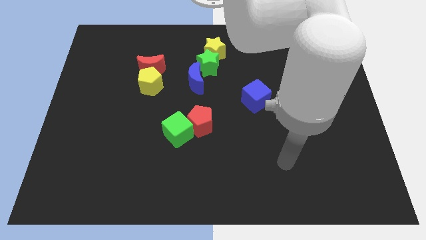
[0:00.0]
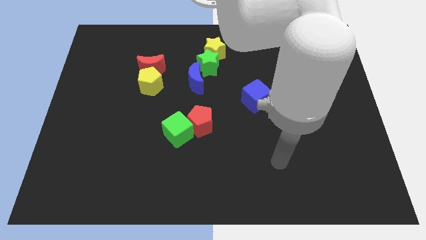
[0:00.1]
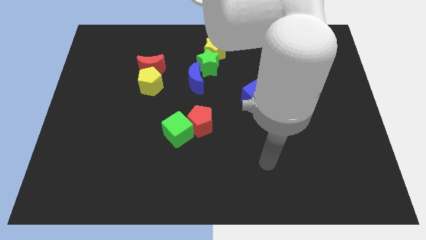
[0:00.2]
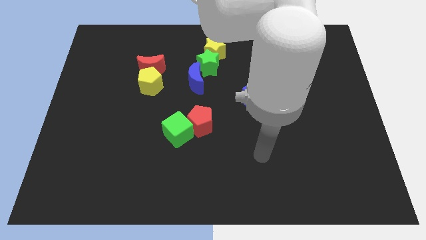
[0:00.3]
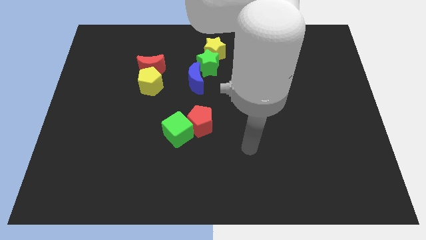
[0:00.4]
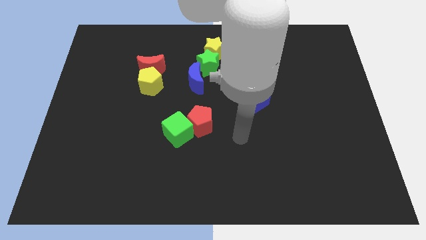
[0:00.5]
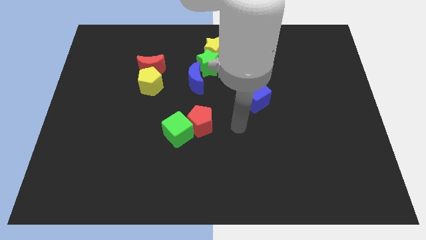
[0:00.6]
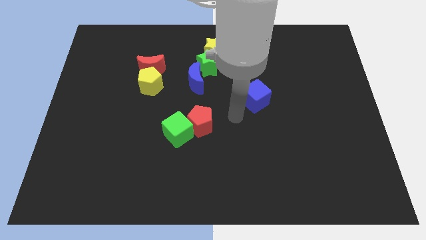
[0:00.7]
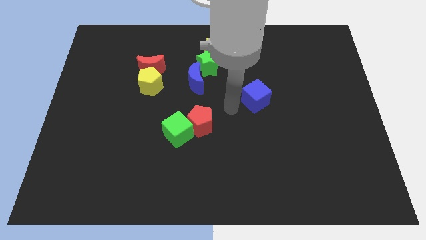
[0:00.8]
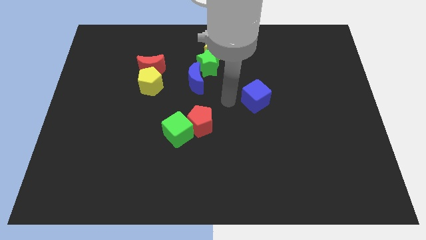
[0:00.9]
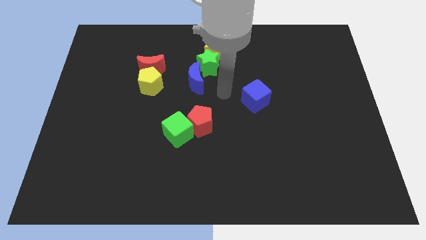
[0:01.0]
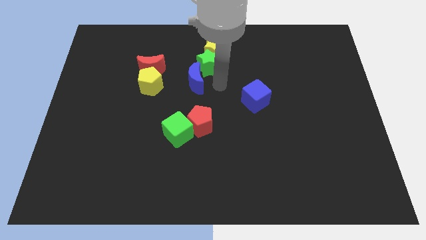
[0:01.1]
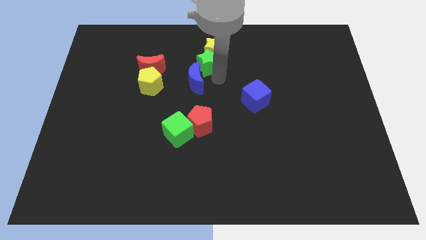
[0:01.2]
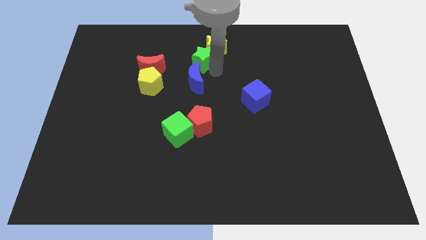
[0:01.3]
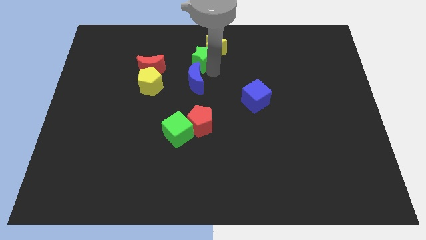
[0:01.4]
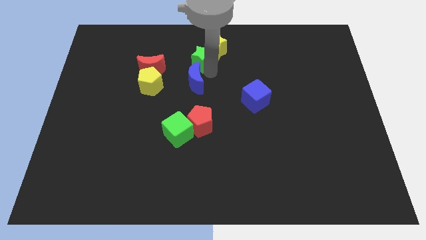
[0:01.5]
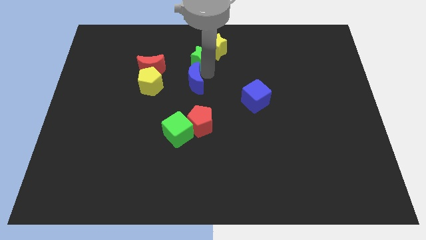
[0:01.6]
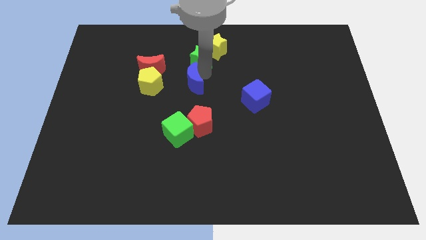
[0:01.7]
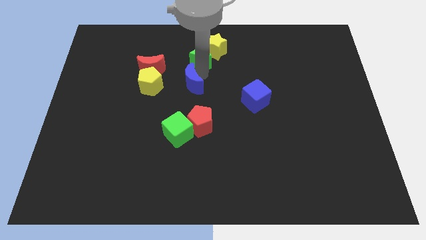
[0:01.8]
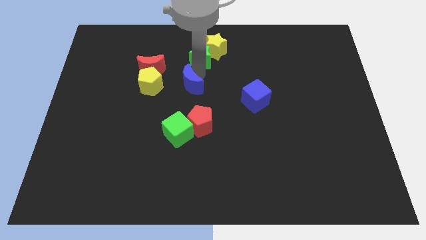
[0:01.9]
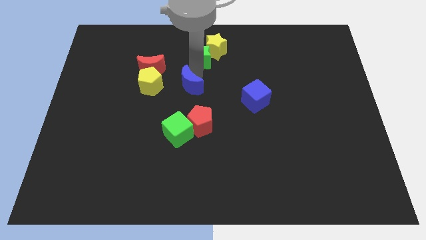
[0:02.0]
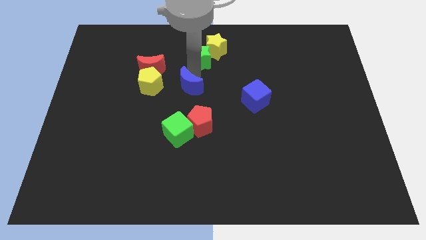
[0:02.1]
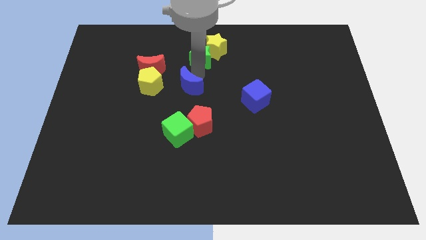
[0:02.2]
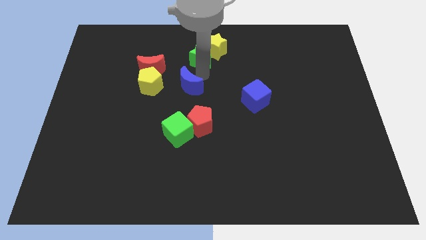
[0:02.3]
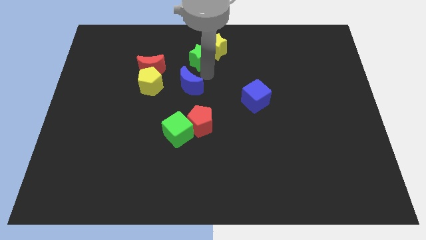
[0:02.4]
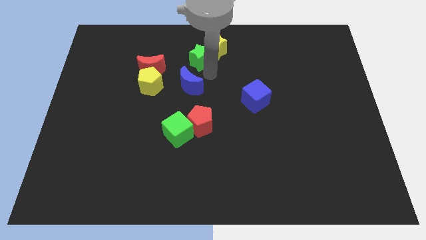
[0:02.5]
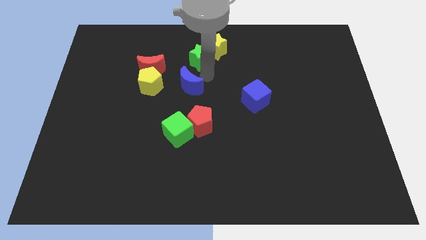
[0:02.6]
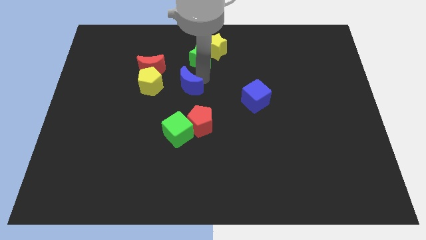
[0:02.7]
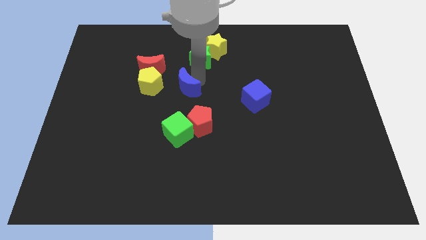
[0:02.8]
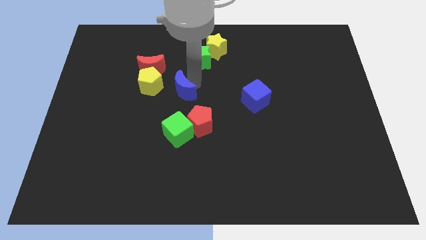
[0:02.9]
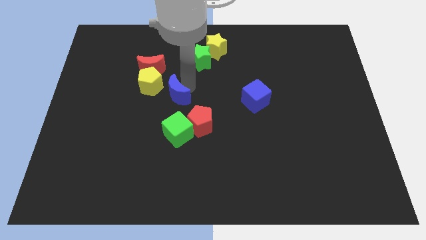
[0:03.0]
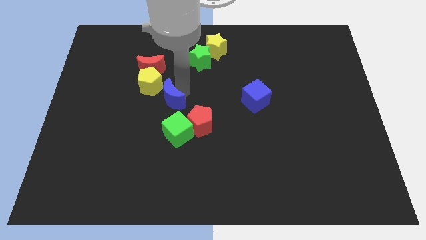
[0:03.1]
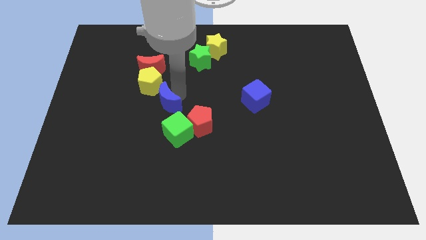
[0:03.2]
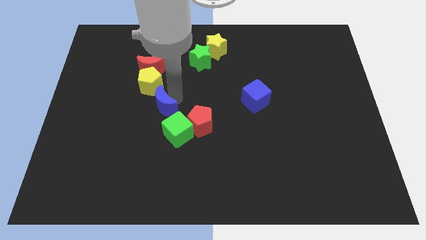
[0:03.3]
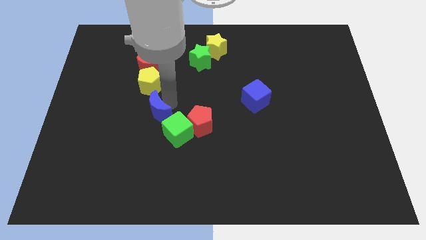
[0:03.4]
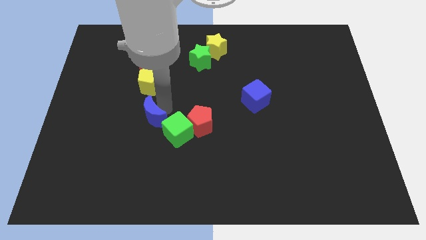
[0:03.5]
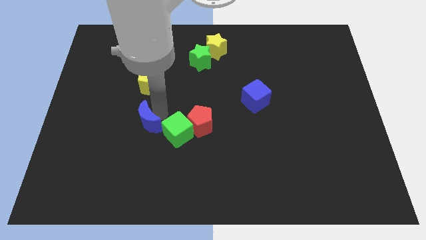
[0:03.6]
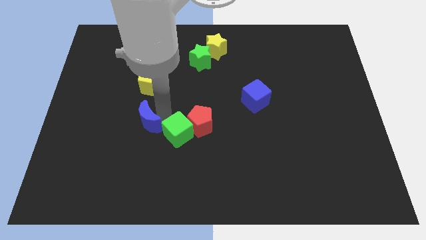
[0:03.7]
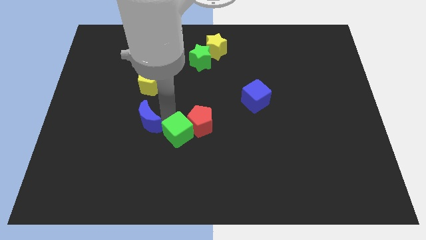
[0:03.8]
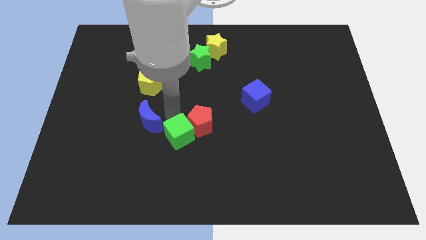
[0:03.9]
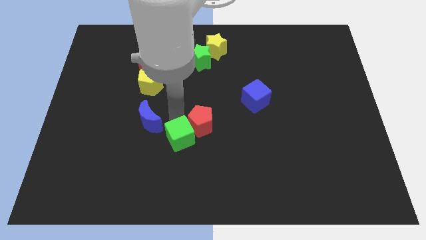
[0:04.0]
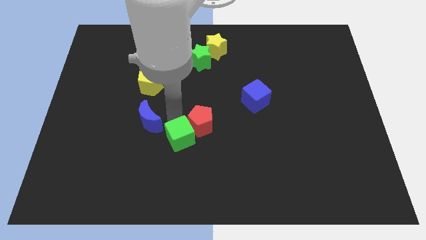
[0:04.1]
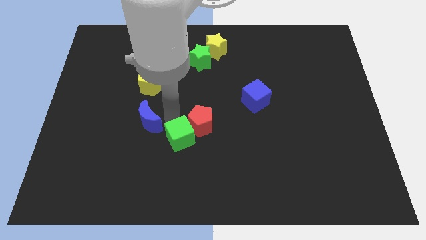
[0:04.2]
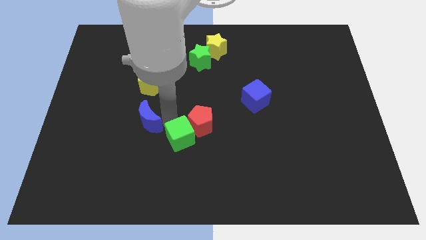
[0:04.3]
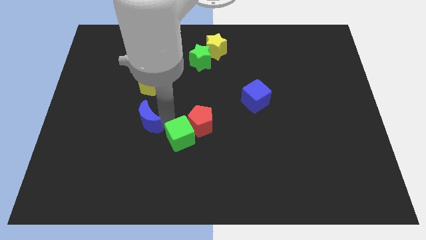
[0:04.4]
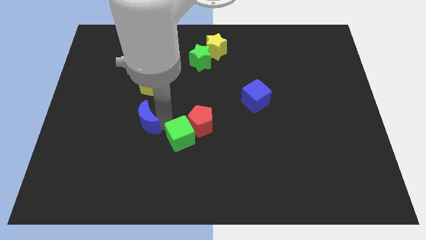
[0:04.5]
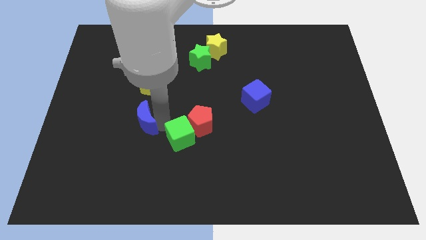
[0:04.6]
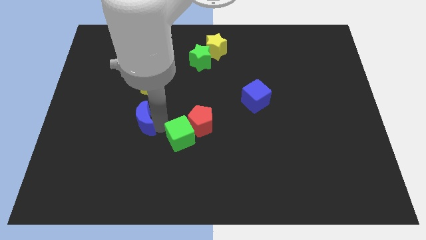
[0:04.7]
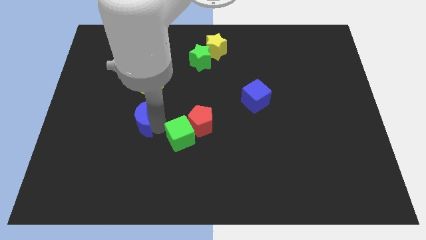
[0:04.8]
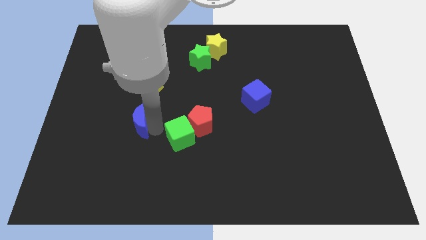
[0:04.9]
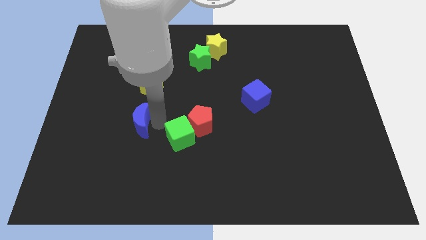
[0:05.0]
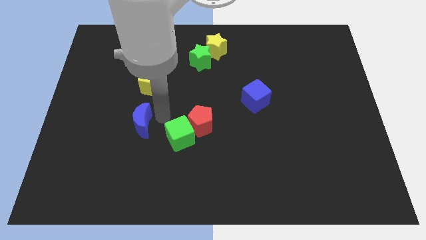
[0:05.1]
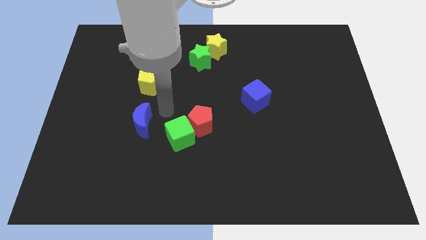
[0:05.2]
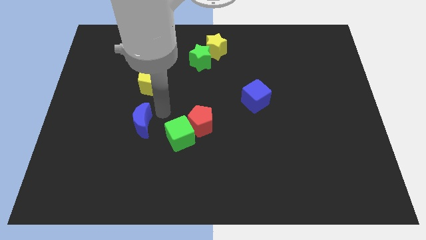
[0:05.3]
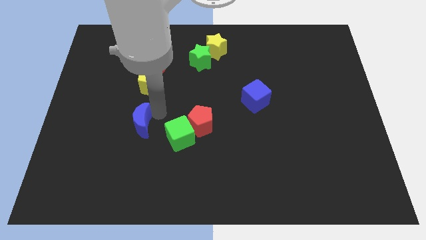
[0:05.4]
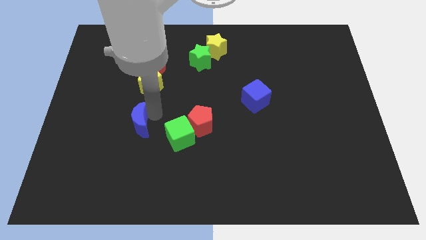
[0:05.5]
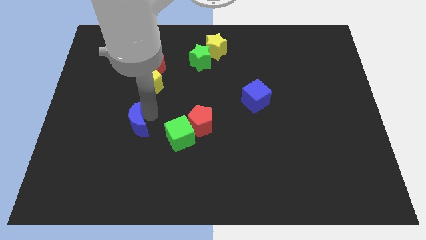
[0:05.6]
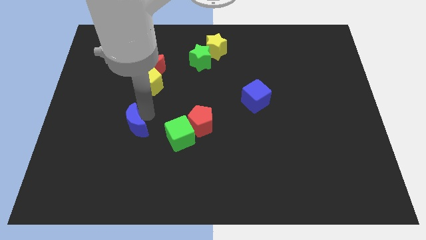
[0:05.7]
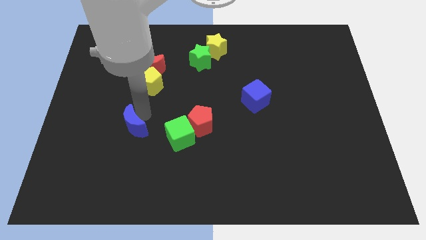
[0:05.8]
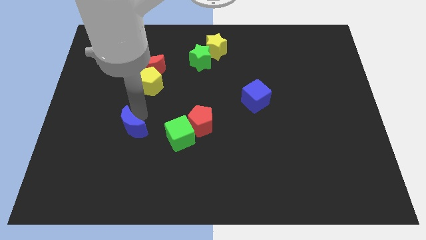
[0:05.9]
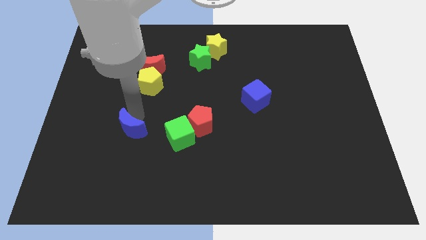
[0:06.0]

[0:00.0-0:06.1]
slide the blue moon downwards and then left

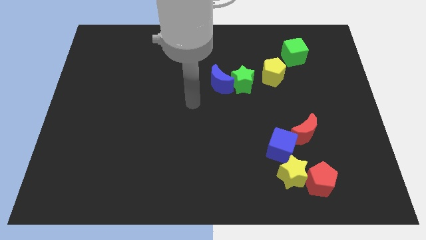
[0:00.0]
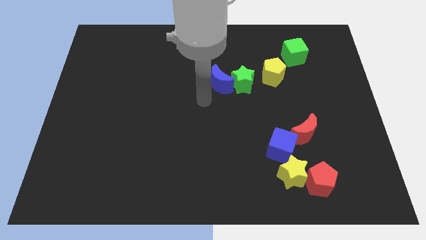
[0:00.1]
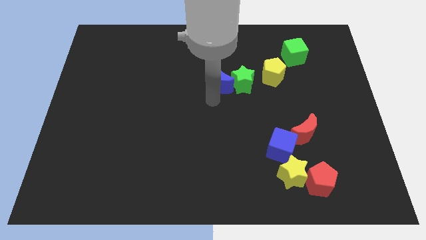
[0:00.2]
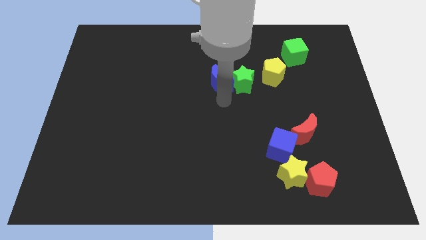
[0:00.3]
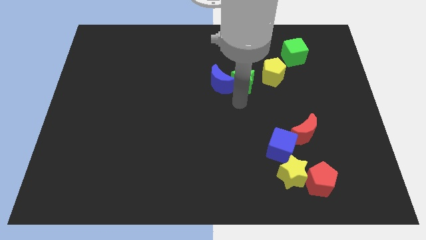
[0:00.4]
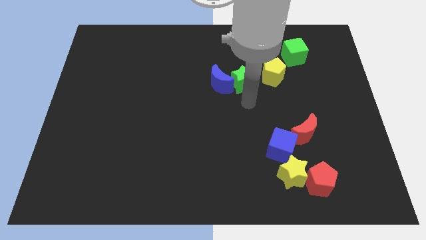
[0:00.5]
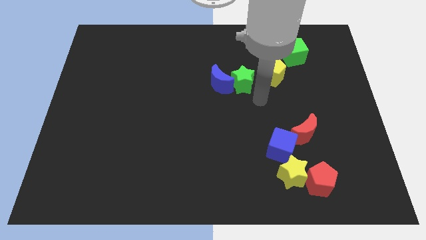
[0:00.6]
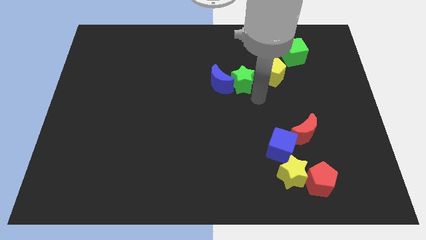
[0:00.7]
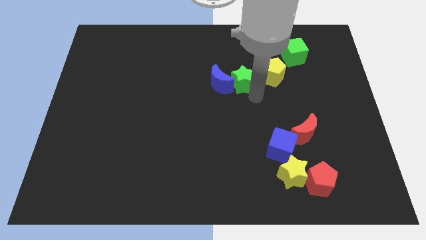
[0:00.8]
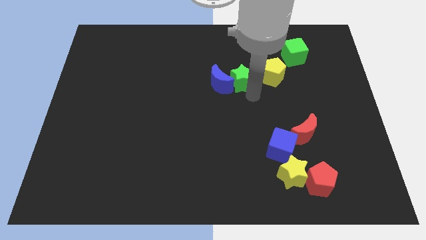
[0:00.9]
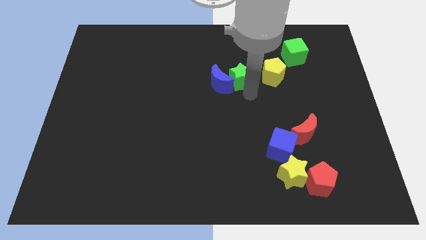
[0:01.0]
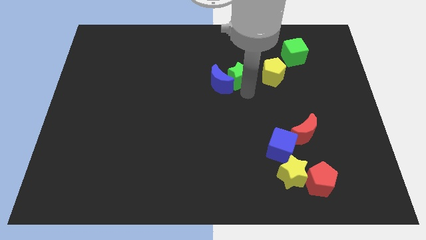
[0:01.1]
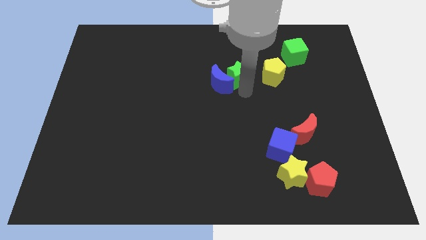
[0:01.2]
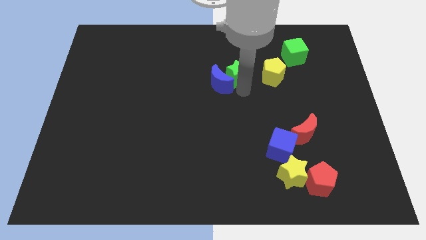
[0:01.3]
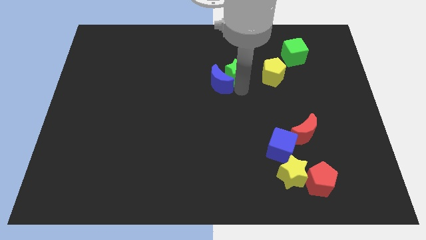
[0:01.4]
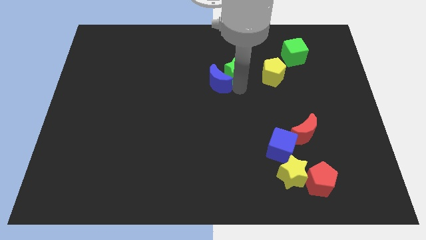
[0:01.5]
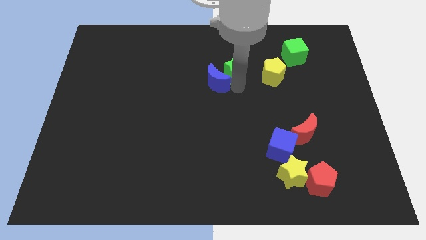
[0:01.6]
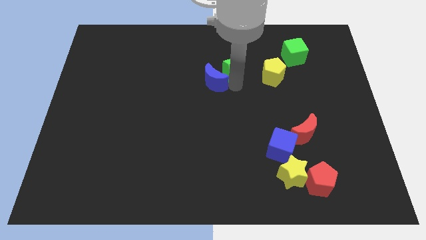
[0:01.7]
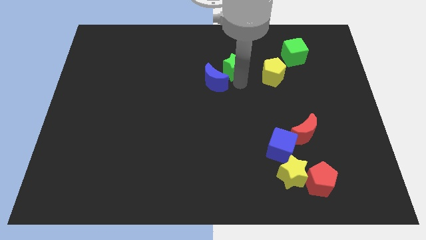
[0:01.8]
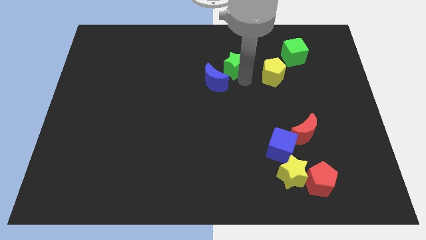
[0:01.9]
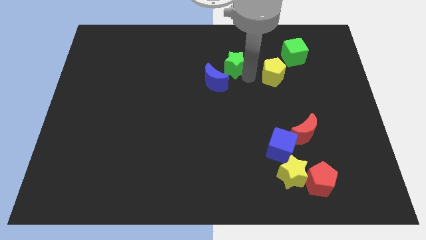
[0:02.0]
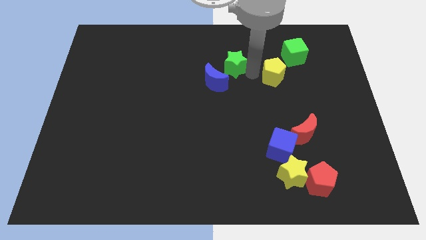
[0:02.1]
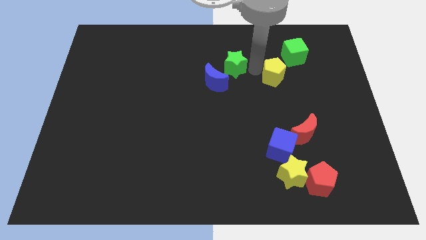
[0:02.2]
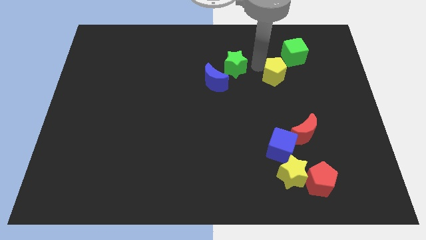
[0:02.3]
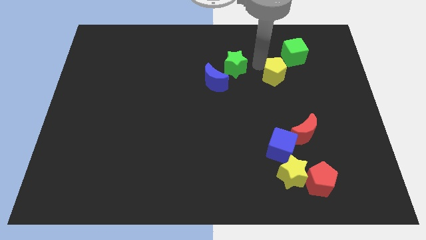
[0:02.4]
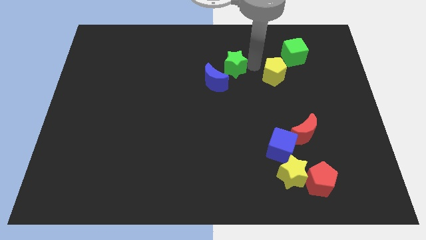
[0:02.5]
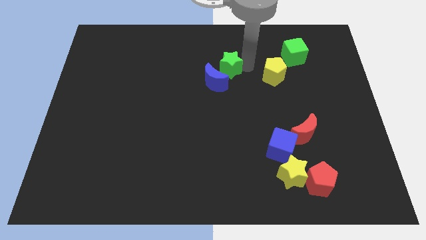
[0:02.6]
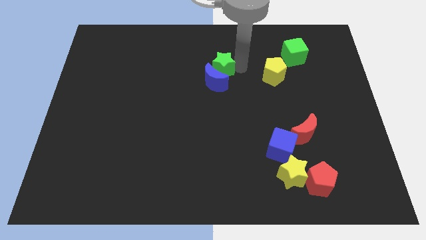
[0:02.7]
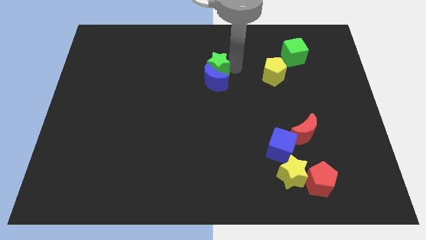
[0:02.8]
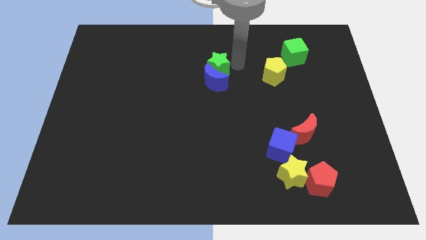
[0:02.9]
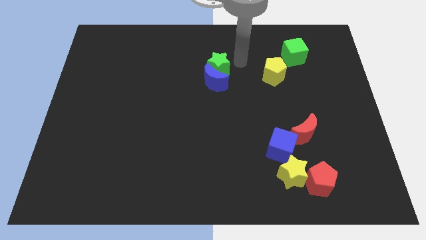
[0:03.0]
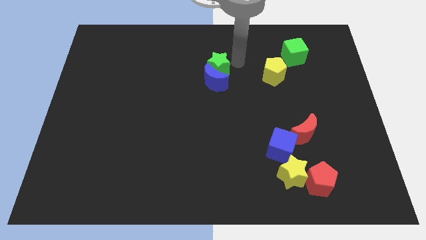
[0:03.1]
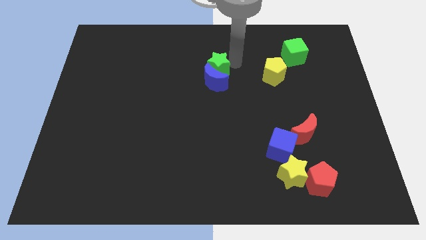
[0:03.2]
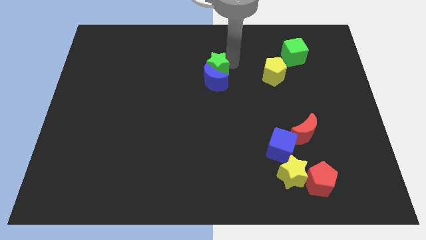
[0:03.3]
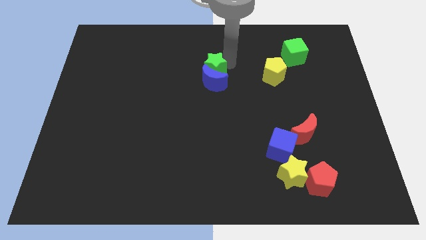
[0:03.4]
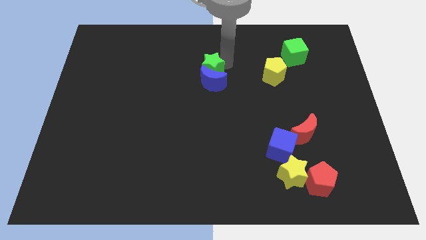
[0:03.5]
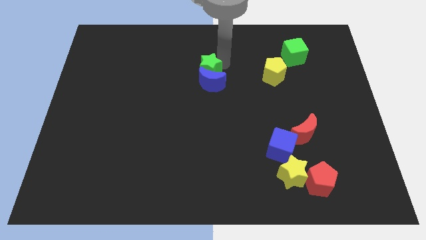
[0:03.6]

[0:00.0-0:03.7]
slide the green star a little to the left
